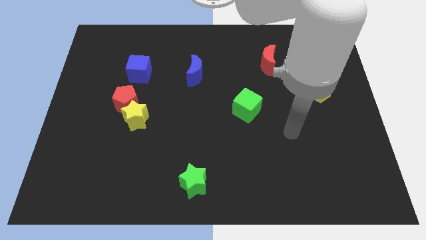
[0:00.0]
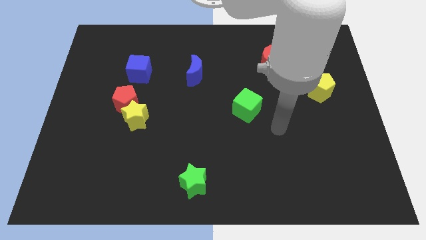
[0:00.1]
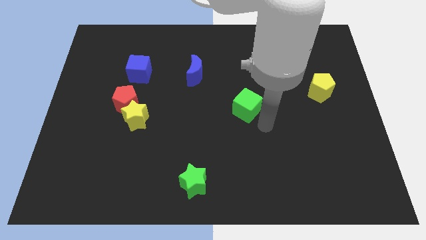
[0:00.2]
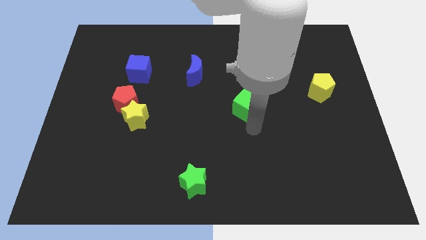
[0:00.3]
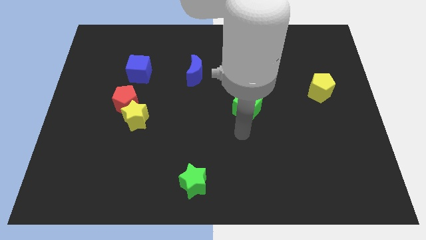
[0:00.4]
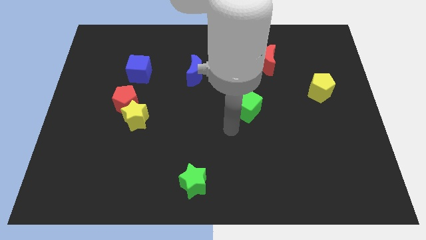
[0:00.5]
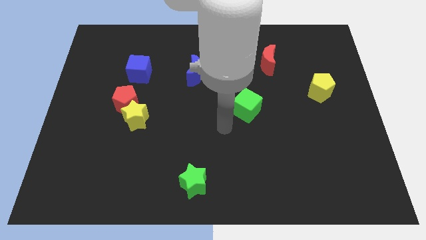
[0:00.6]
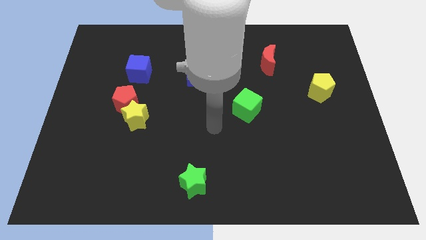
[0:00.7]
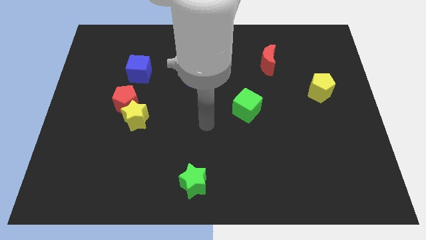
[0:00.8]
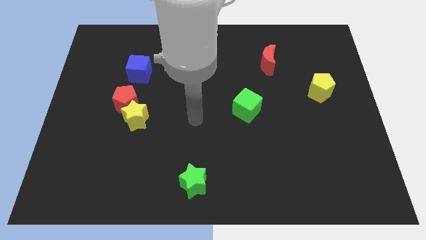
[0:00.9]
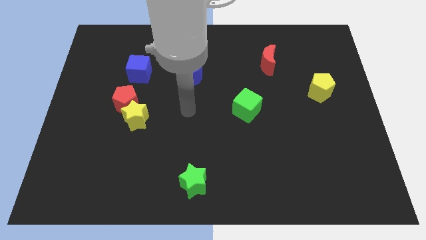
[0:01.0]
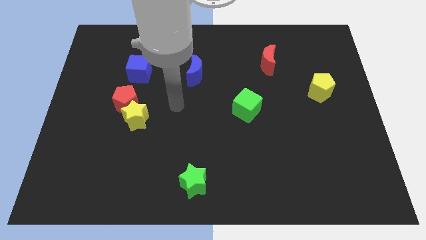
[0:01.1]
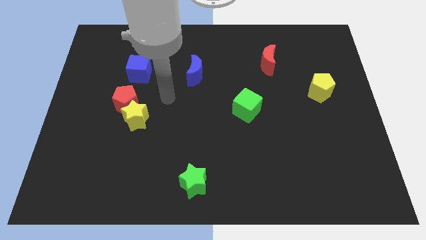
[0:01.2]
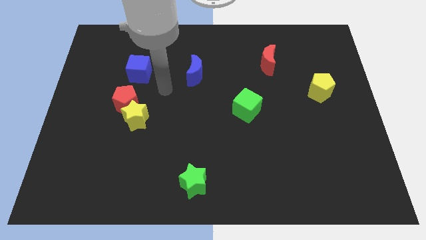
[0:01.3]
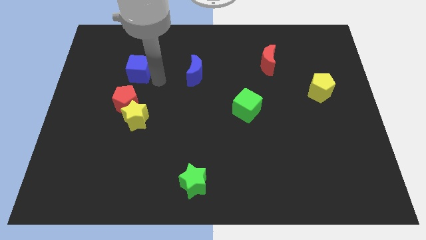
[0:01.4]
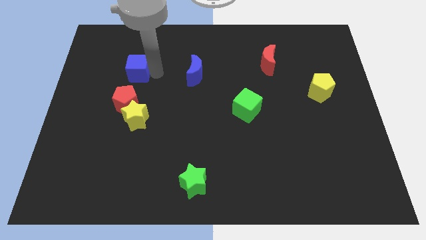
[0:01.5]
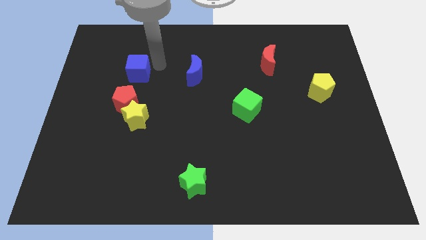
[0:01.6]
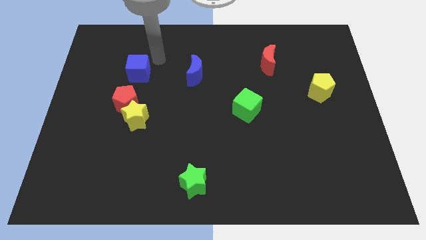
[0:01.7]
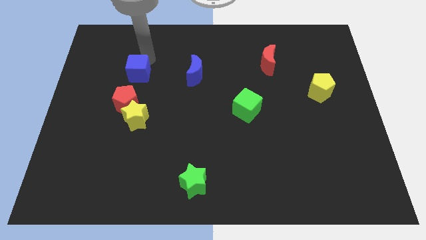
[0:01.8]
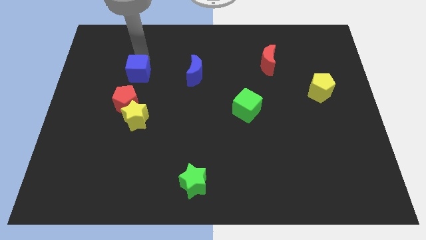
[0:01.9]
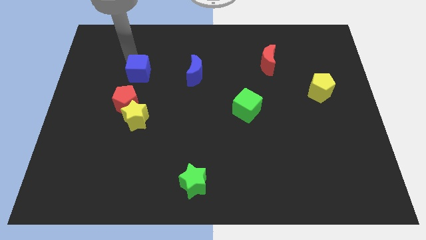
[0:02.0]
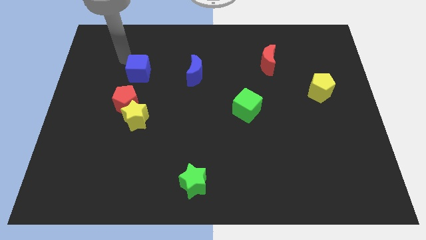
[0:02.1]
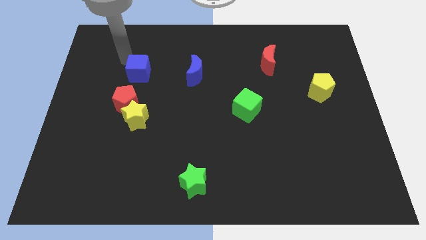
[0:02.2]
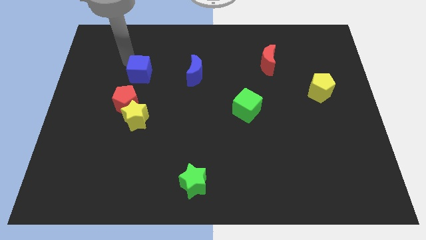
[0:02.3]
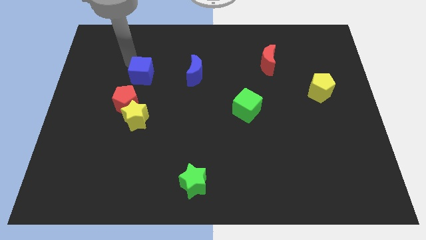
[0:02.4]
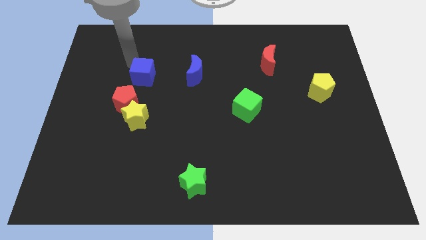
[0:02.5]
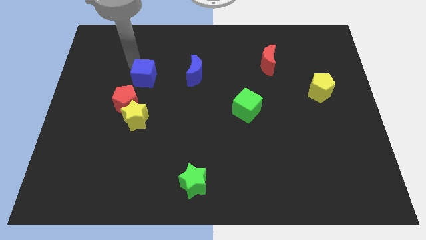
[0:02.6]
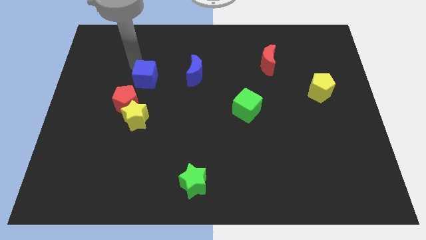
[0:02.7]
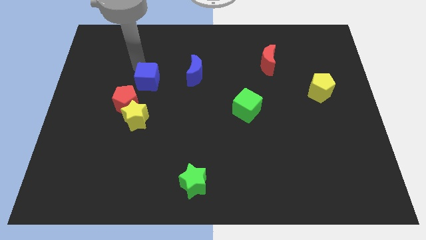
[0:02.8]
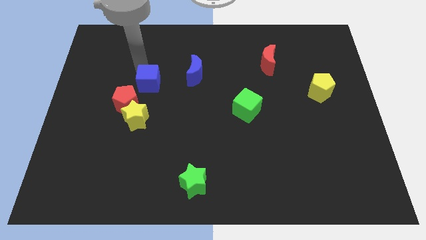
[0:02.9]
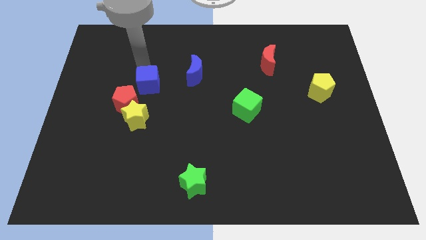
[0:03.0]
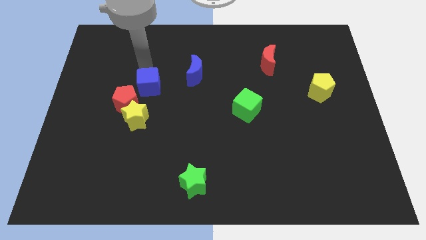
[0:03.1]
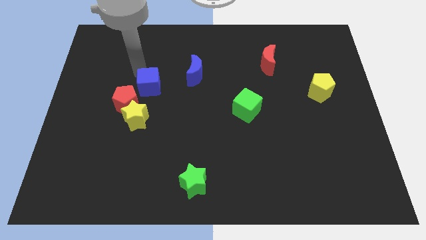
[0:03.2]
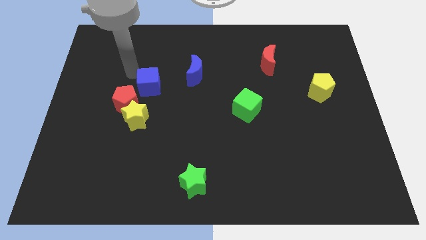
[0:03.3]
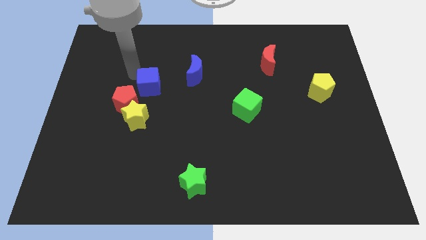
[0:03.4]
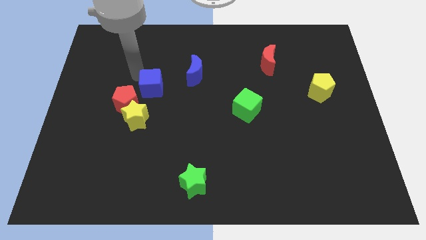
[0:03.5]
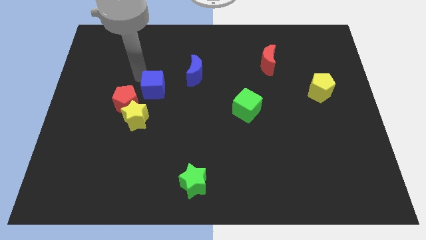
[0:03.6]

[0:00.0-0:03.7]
slightly slide the blue cube diagonally down and right

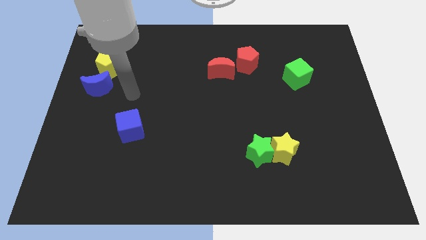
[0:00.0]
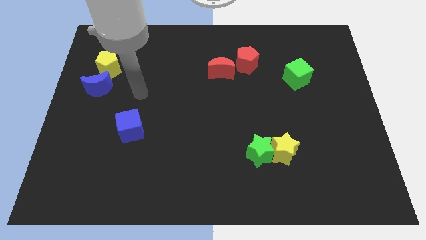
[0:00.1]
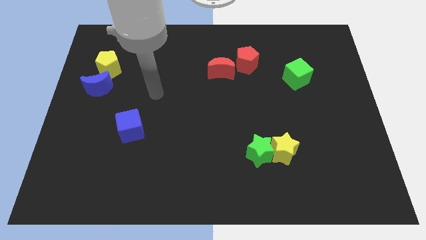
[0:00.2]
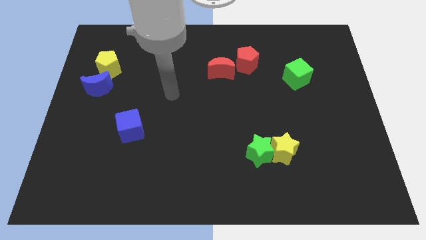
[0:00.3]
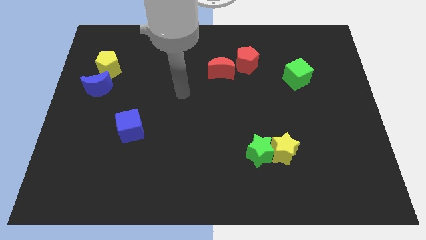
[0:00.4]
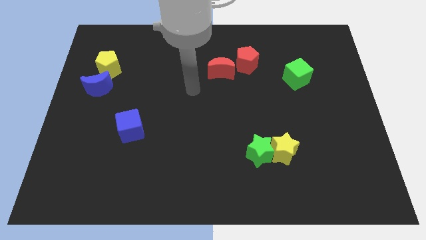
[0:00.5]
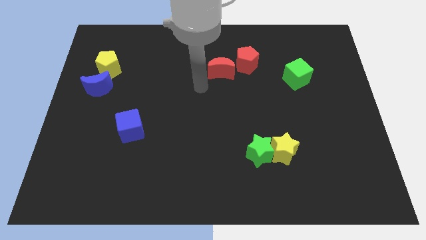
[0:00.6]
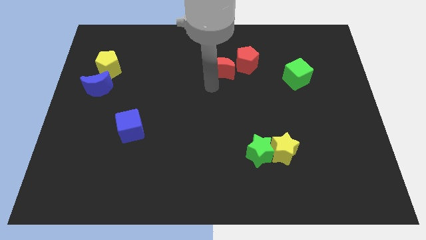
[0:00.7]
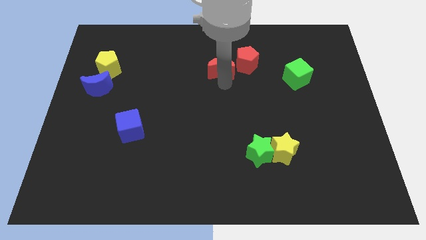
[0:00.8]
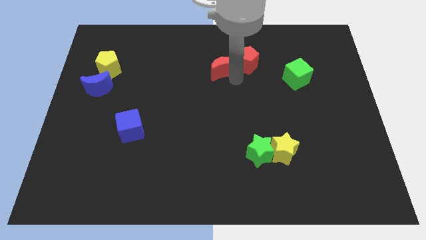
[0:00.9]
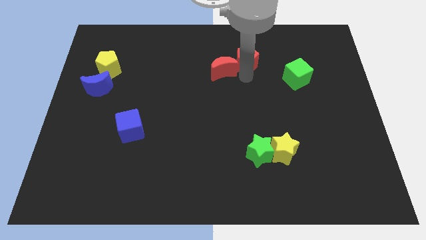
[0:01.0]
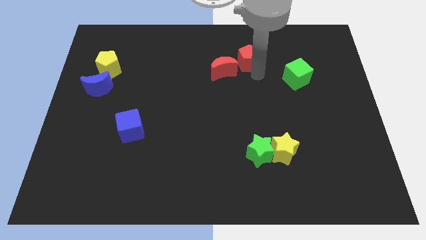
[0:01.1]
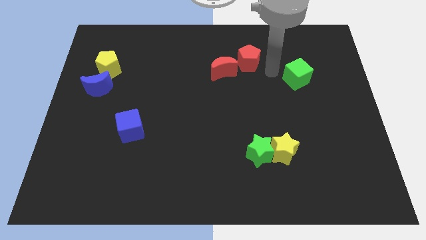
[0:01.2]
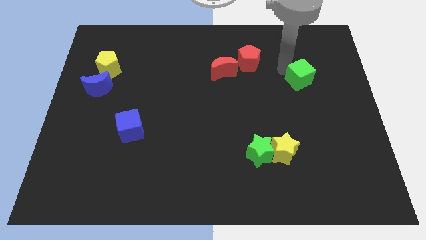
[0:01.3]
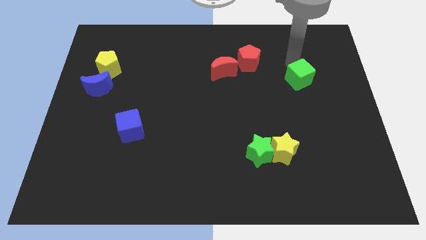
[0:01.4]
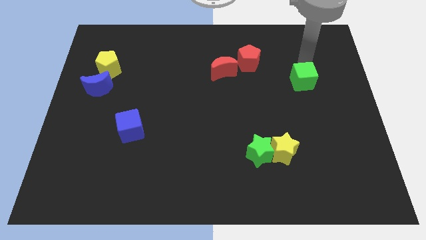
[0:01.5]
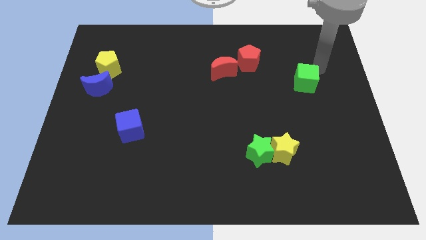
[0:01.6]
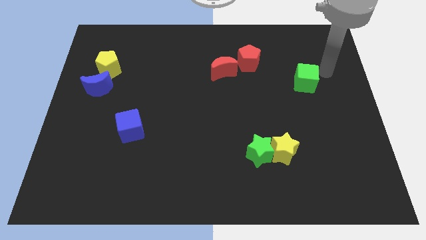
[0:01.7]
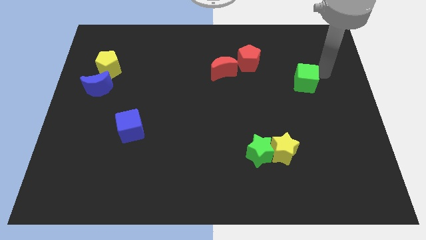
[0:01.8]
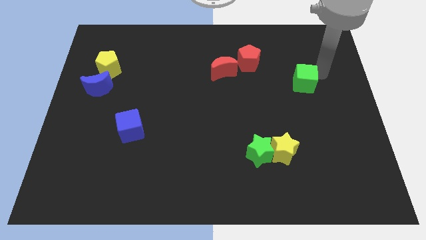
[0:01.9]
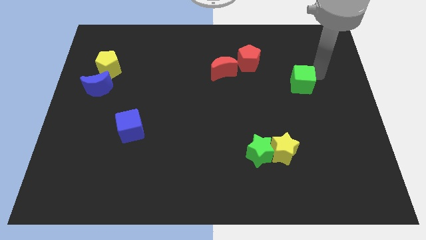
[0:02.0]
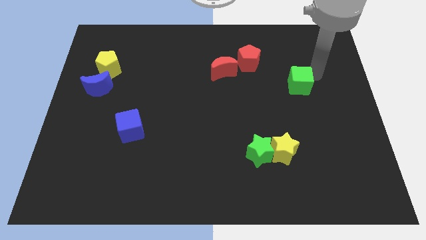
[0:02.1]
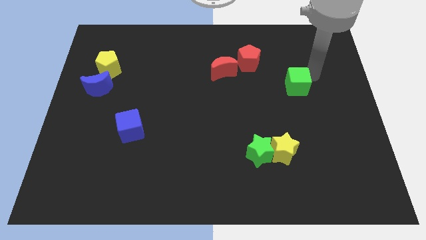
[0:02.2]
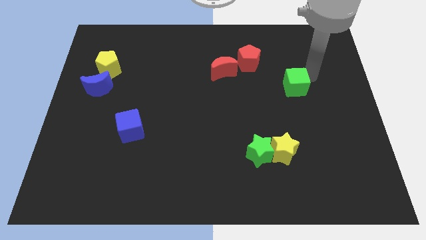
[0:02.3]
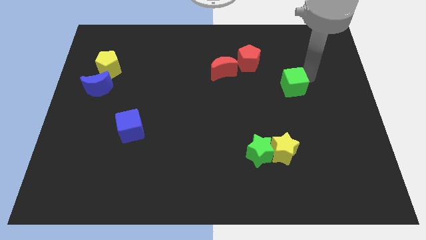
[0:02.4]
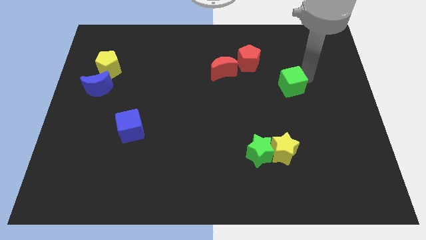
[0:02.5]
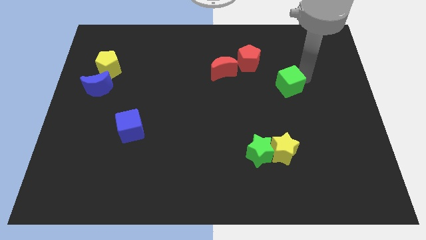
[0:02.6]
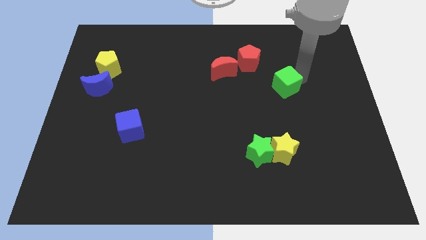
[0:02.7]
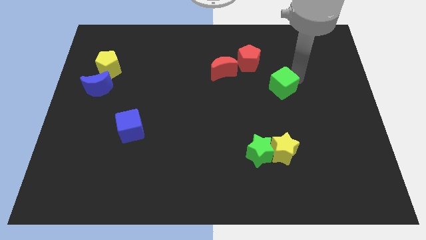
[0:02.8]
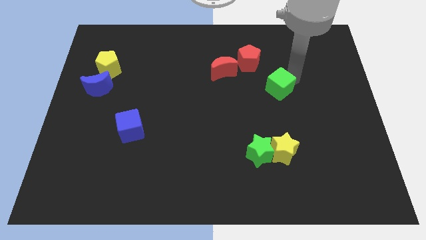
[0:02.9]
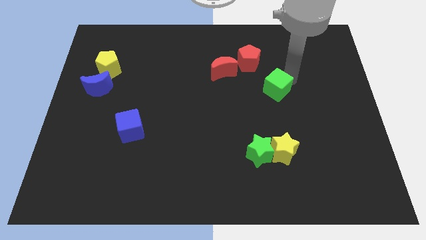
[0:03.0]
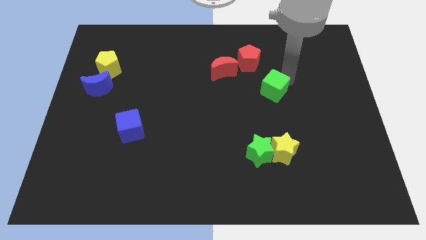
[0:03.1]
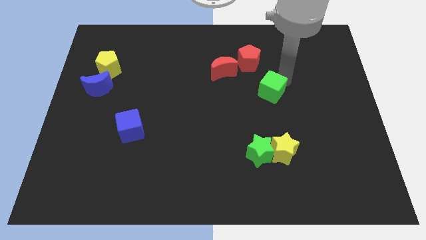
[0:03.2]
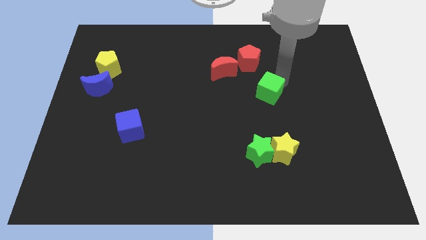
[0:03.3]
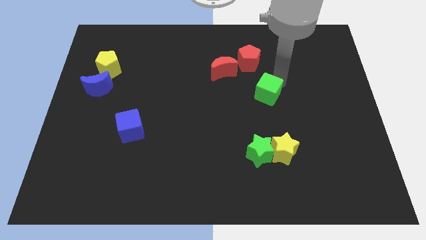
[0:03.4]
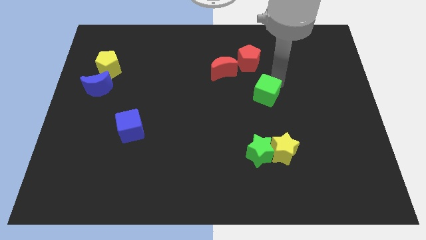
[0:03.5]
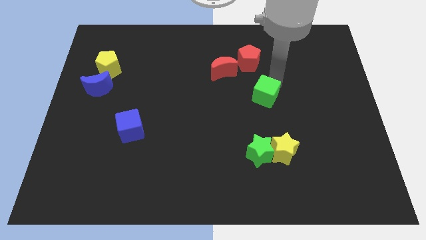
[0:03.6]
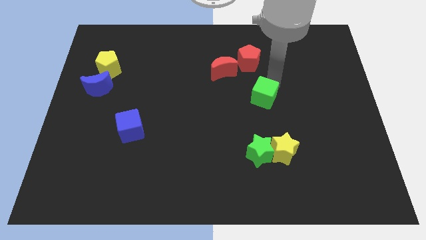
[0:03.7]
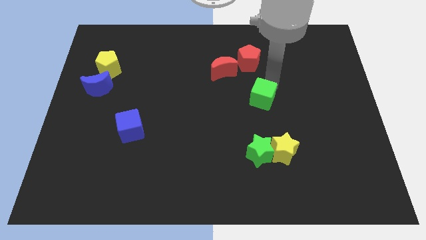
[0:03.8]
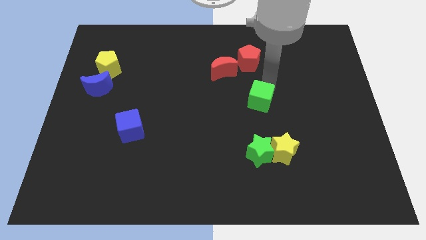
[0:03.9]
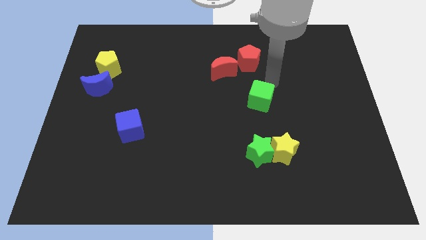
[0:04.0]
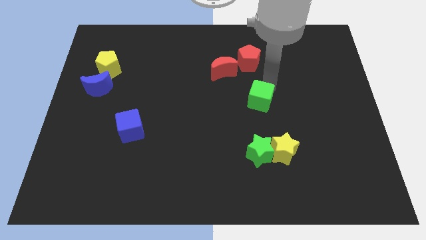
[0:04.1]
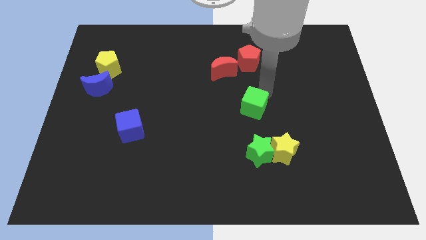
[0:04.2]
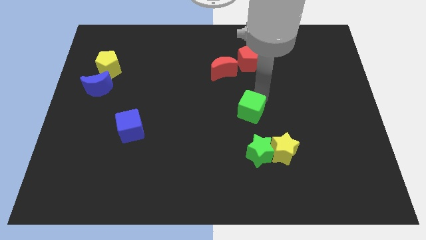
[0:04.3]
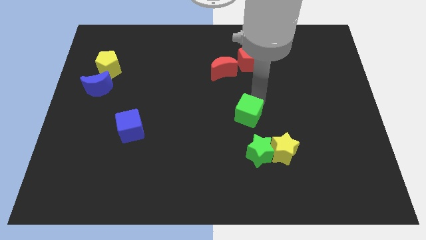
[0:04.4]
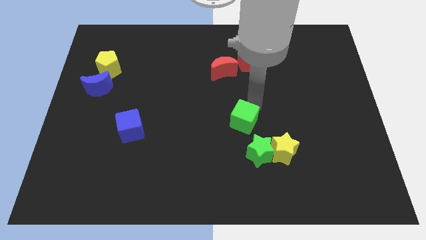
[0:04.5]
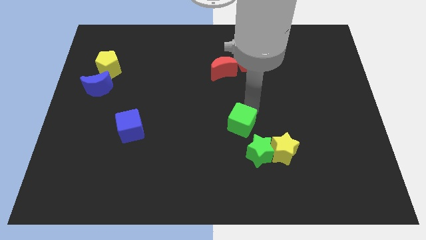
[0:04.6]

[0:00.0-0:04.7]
push the green cube down and left
